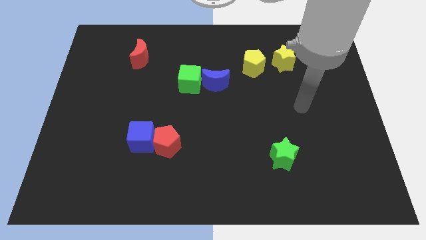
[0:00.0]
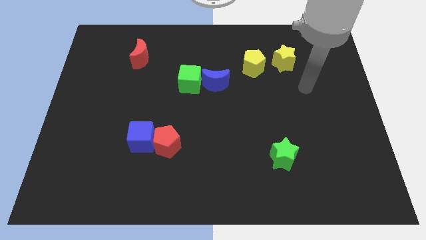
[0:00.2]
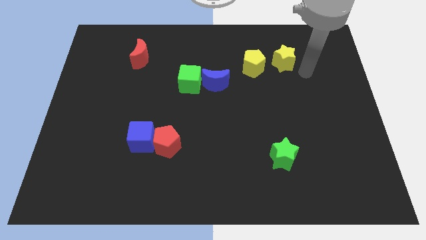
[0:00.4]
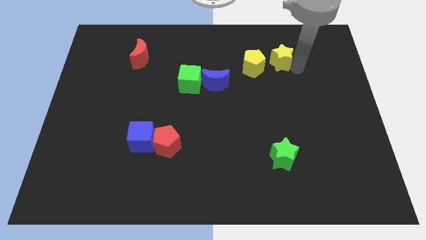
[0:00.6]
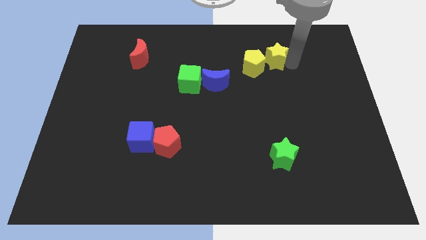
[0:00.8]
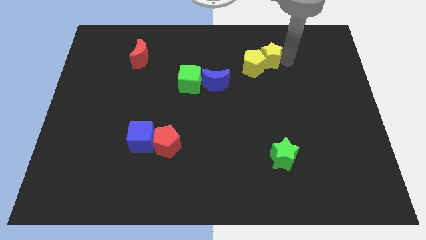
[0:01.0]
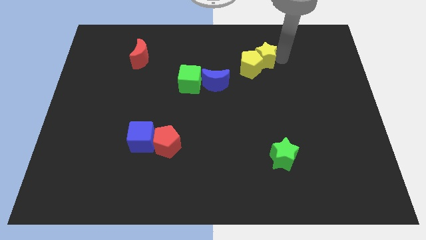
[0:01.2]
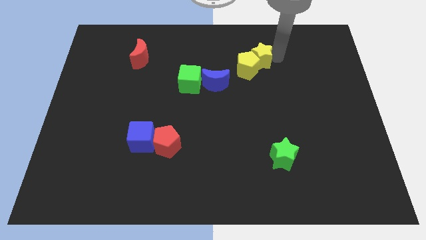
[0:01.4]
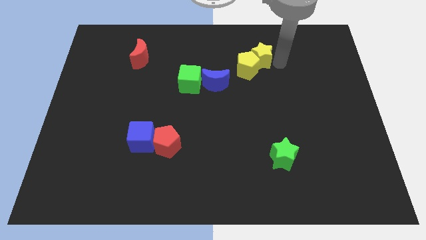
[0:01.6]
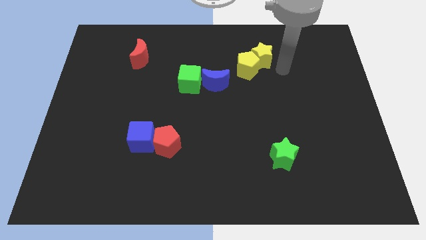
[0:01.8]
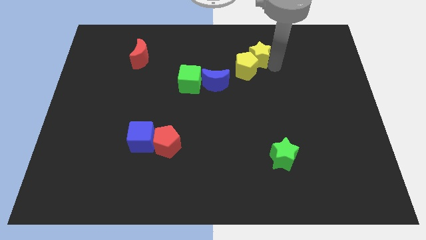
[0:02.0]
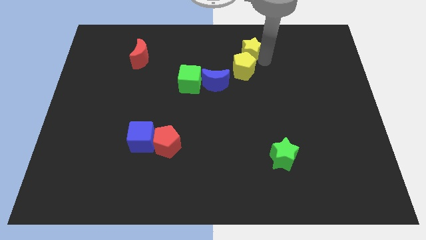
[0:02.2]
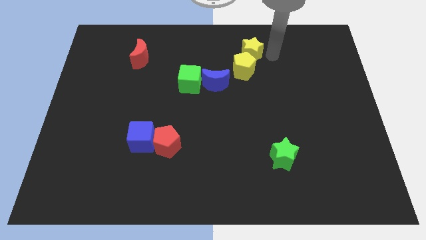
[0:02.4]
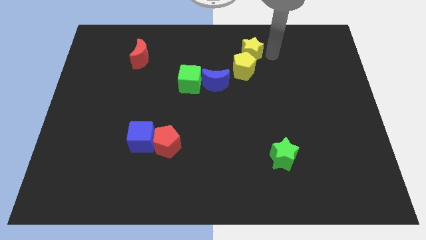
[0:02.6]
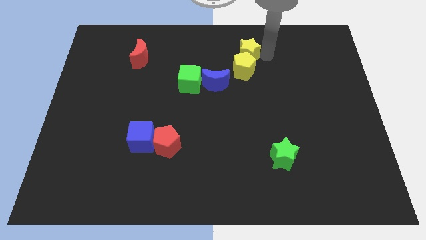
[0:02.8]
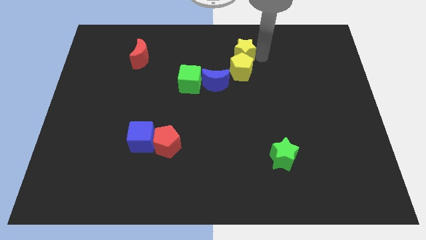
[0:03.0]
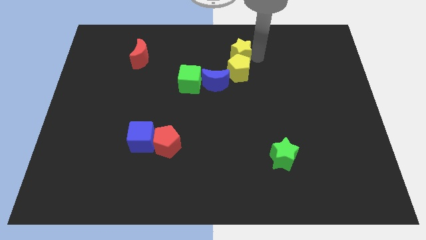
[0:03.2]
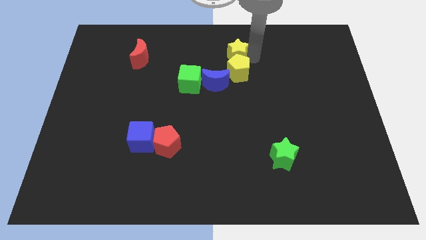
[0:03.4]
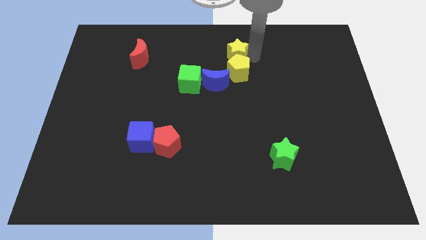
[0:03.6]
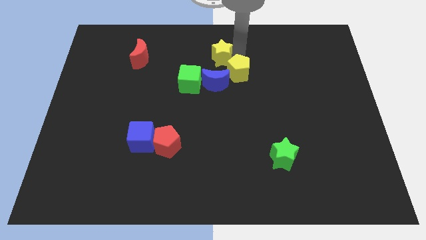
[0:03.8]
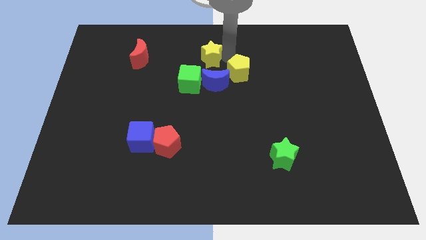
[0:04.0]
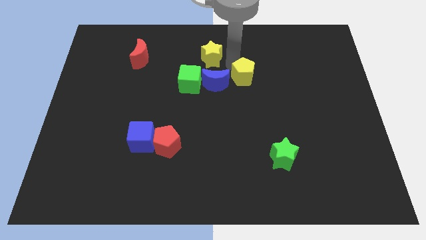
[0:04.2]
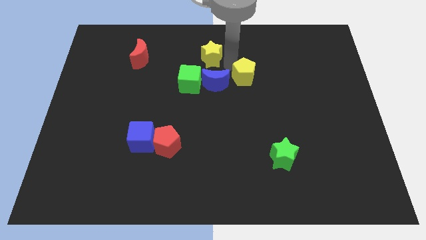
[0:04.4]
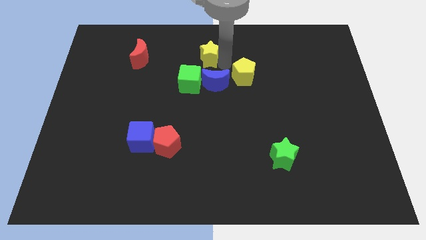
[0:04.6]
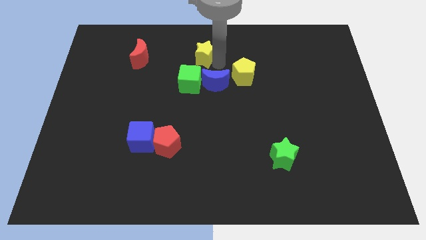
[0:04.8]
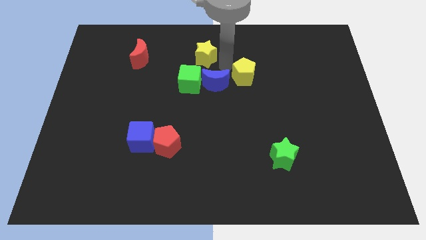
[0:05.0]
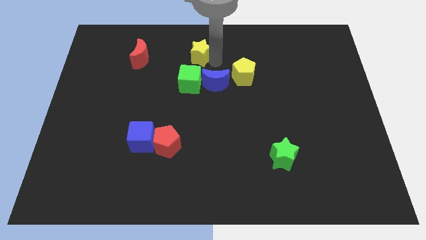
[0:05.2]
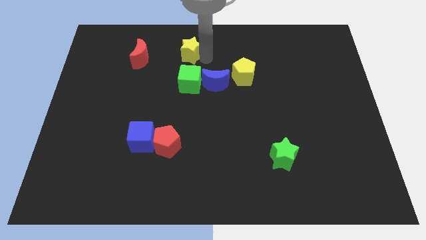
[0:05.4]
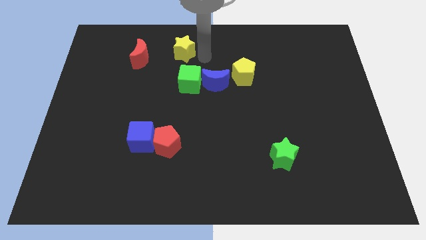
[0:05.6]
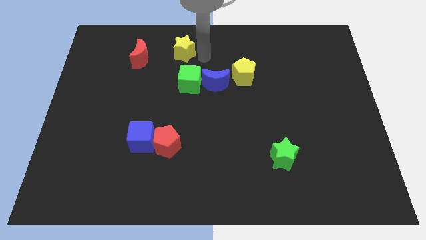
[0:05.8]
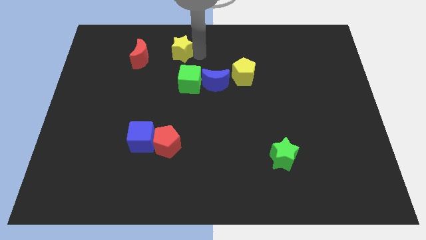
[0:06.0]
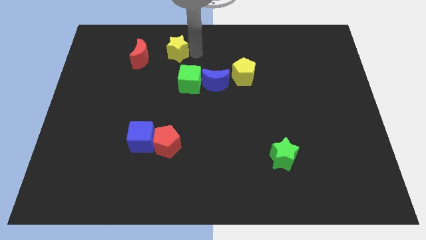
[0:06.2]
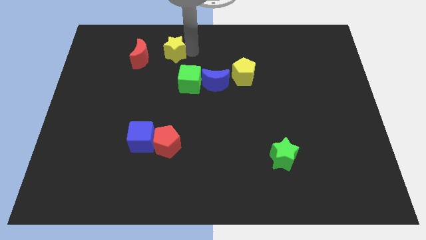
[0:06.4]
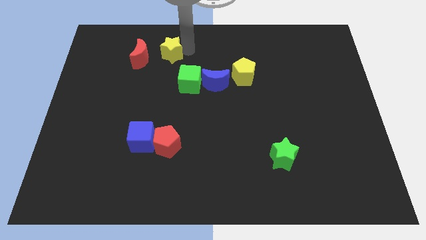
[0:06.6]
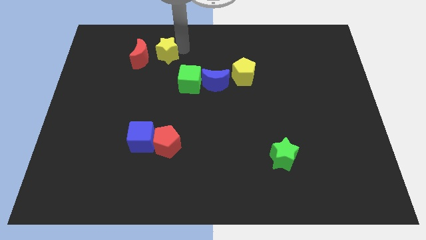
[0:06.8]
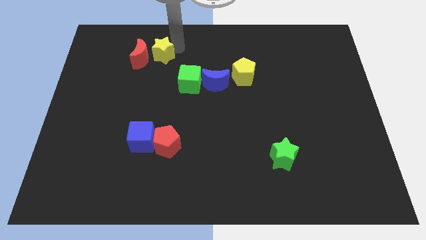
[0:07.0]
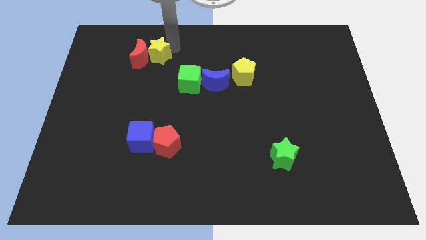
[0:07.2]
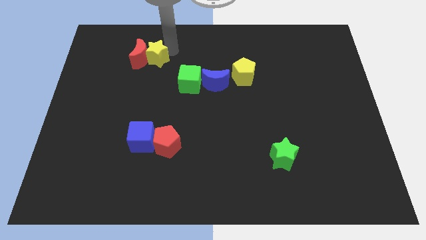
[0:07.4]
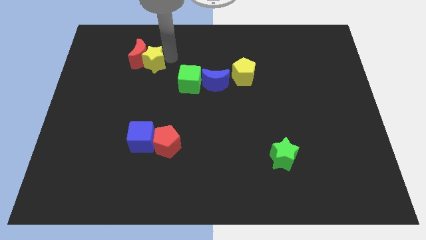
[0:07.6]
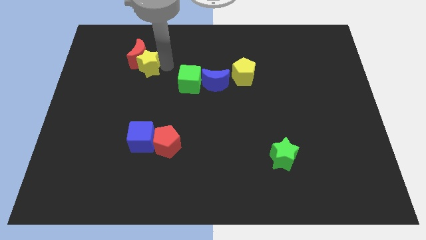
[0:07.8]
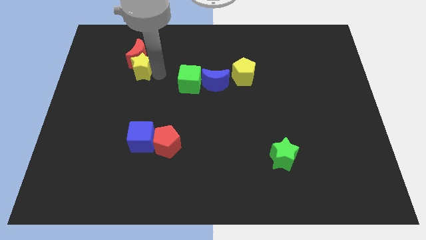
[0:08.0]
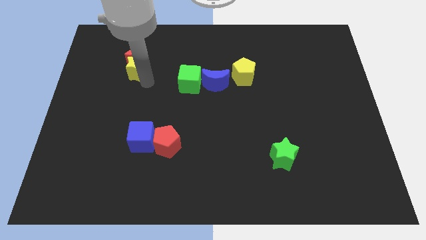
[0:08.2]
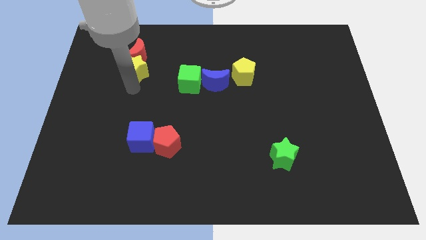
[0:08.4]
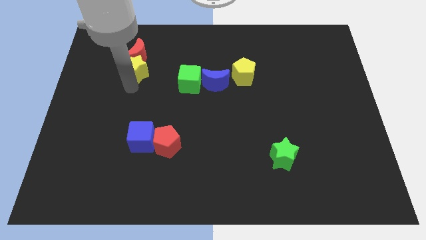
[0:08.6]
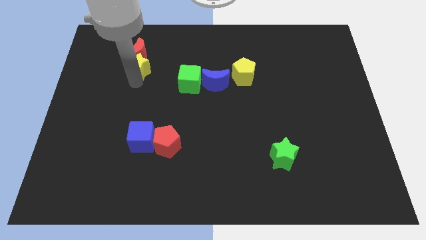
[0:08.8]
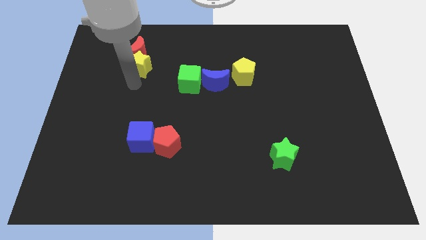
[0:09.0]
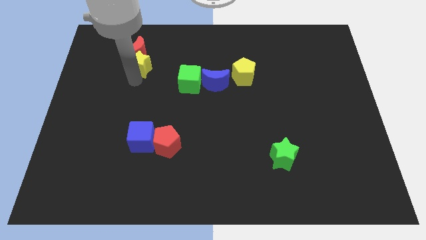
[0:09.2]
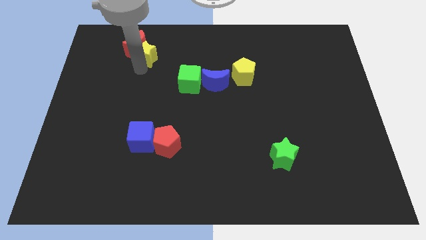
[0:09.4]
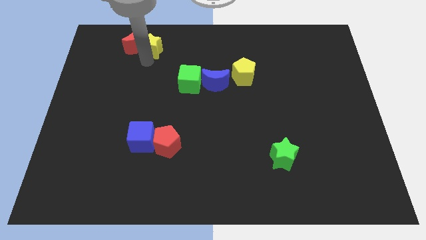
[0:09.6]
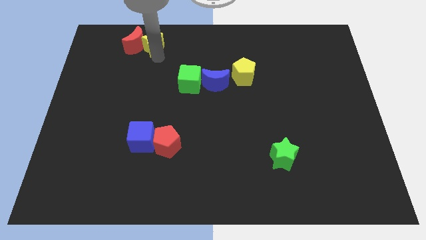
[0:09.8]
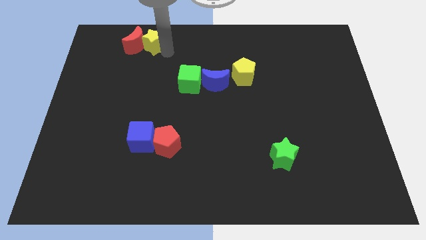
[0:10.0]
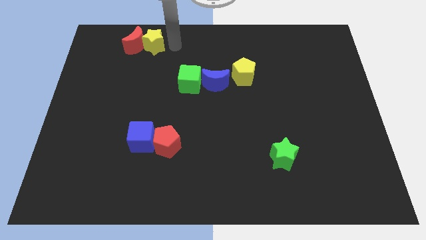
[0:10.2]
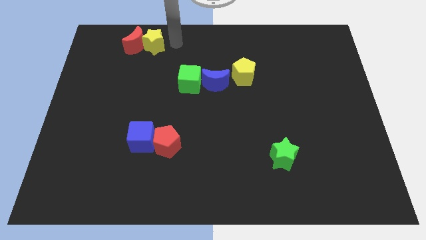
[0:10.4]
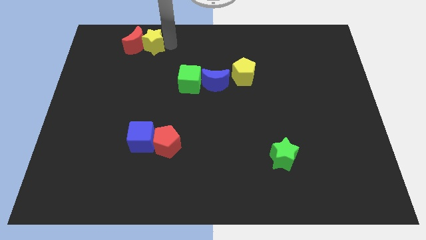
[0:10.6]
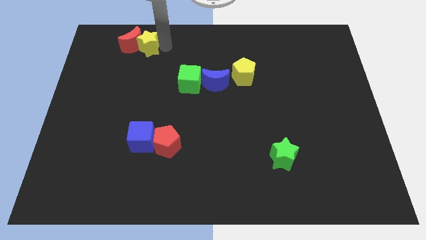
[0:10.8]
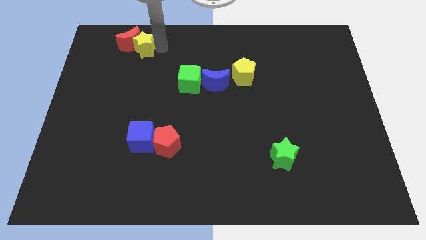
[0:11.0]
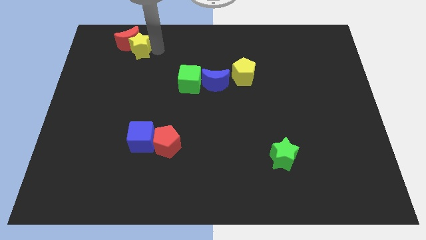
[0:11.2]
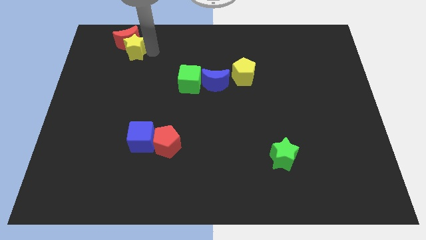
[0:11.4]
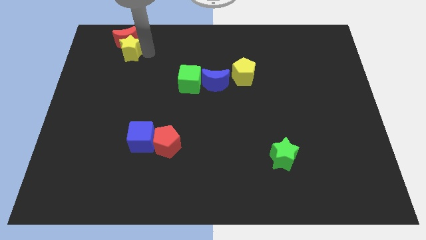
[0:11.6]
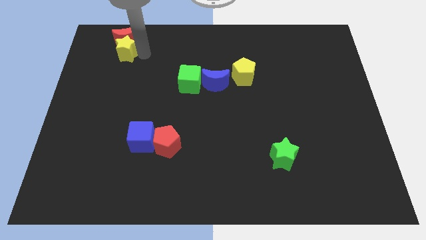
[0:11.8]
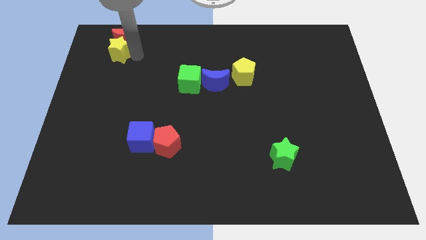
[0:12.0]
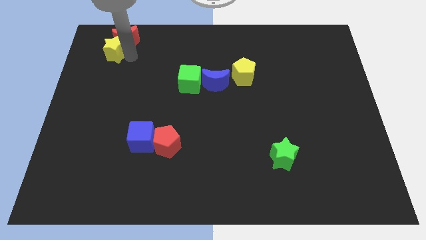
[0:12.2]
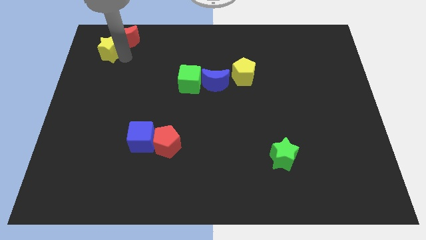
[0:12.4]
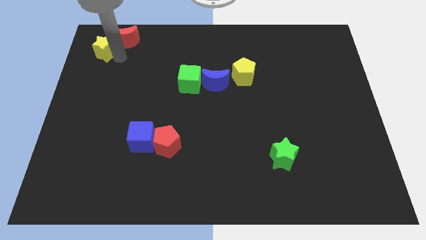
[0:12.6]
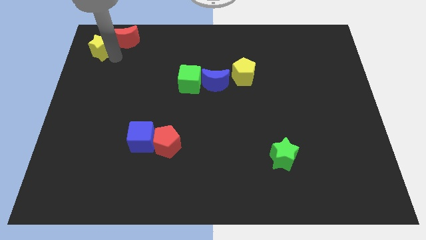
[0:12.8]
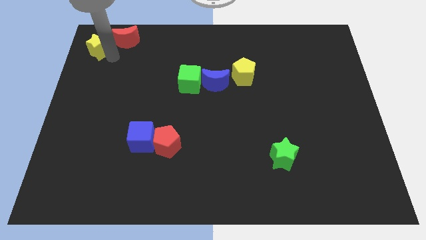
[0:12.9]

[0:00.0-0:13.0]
push the yellow star to the top left corner
